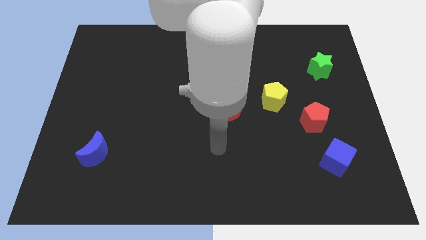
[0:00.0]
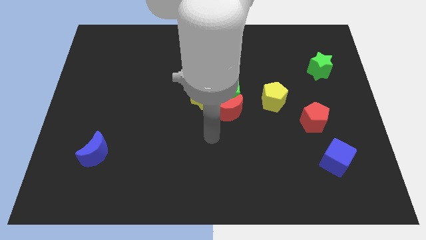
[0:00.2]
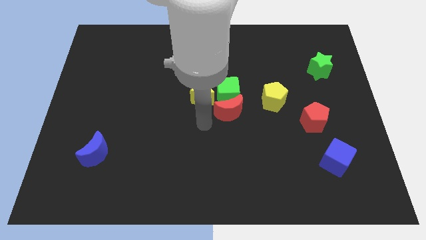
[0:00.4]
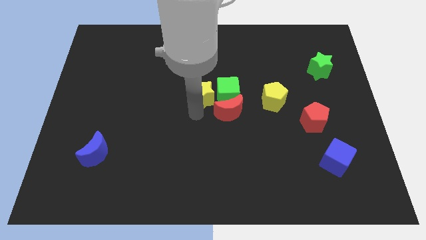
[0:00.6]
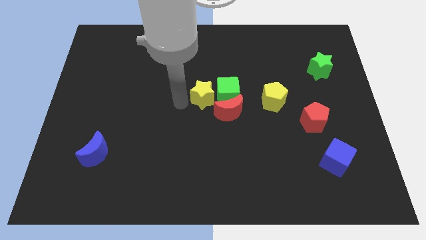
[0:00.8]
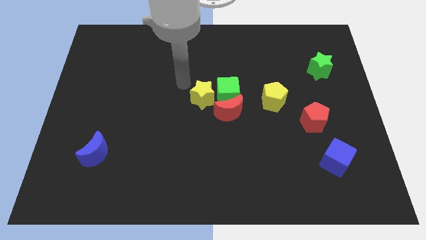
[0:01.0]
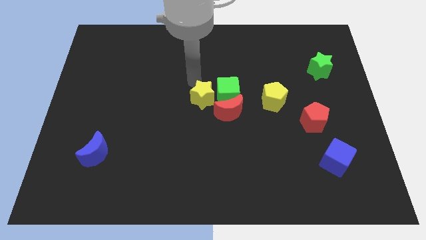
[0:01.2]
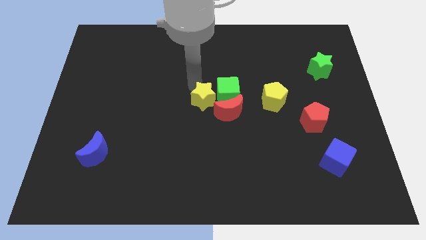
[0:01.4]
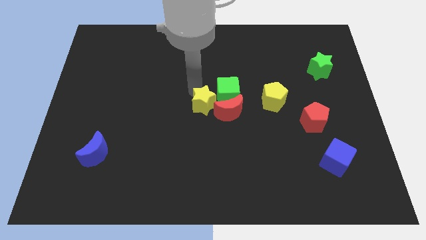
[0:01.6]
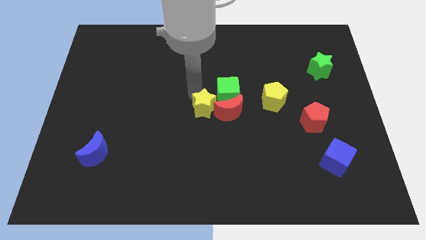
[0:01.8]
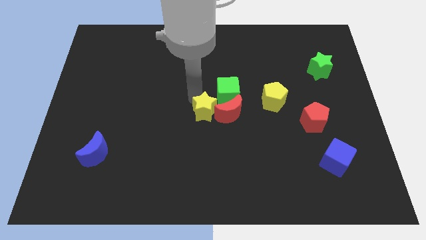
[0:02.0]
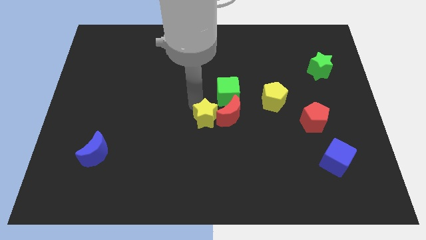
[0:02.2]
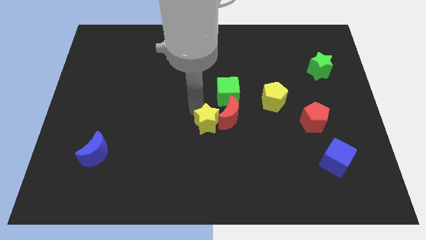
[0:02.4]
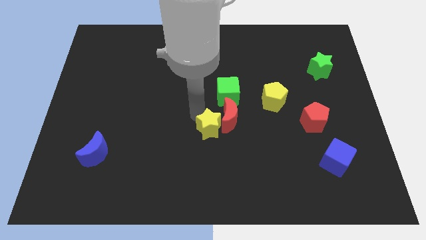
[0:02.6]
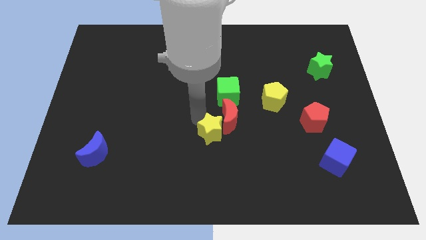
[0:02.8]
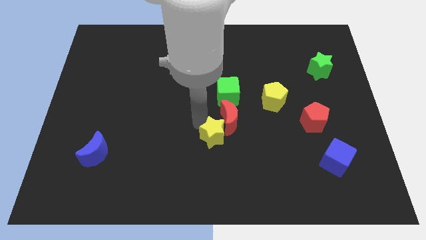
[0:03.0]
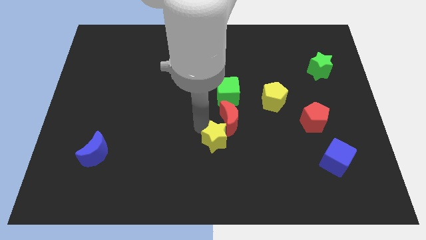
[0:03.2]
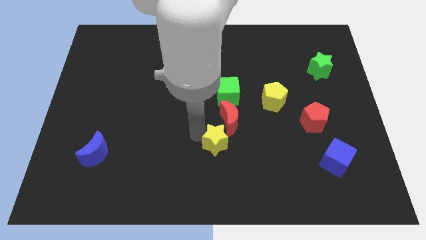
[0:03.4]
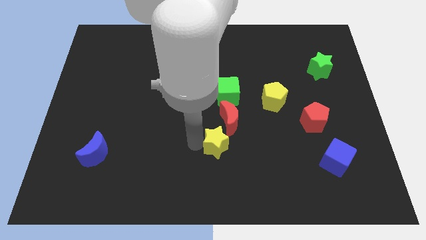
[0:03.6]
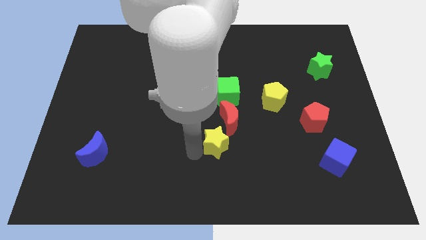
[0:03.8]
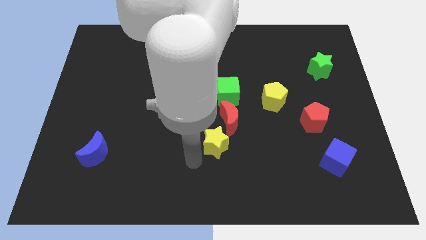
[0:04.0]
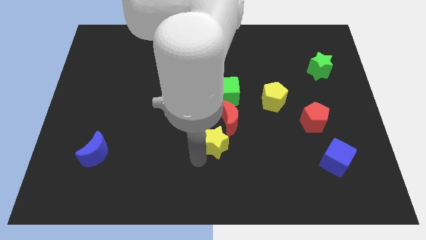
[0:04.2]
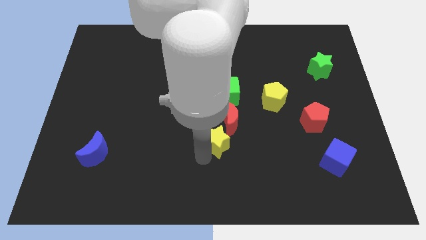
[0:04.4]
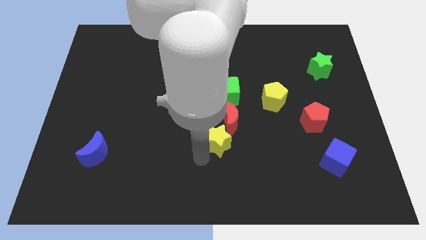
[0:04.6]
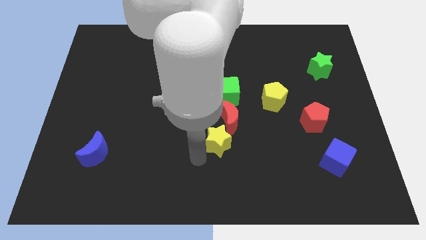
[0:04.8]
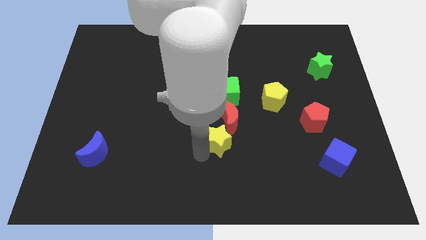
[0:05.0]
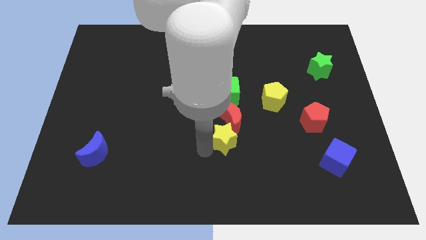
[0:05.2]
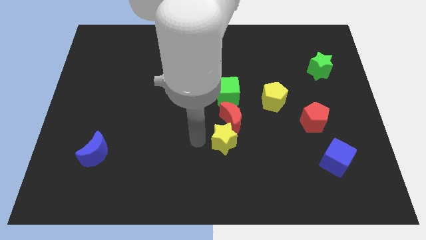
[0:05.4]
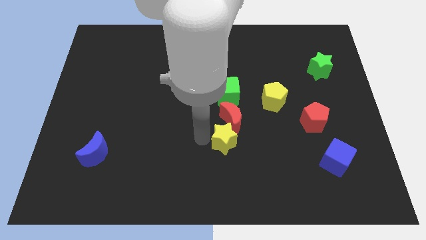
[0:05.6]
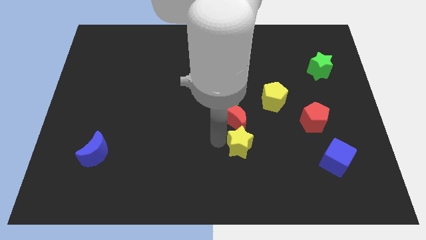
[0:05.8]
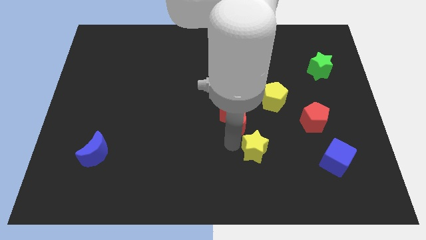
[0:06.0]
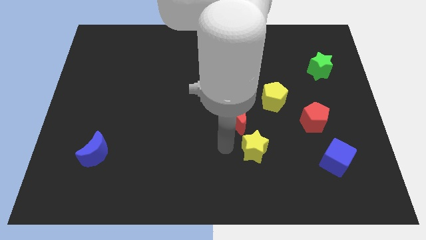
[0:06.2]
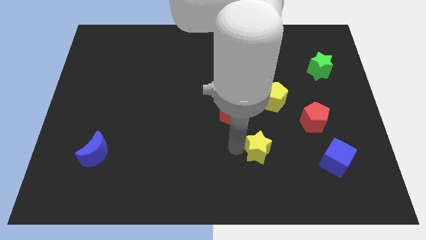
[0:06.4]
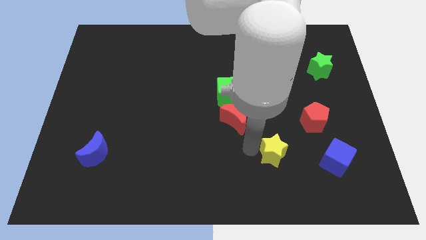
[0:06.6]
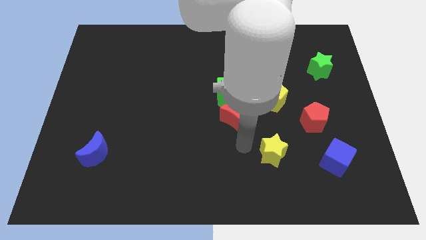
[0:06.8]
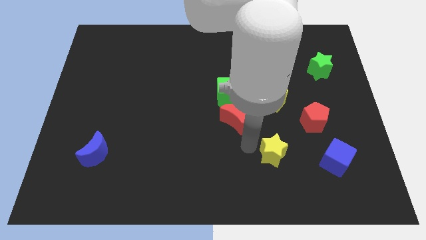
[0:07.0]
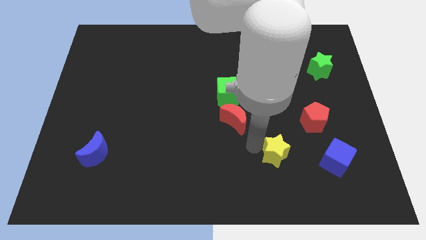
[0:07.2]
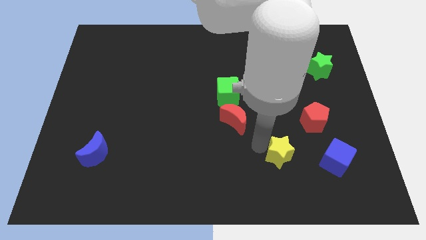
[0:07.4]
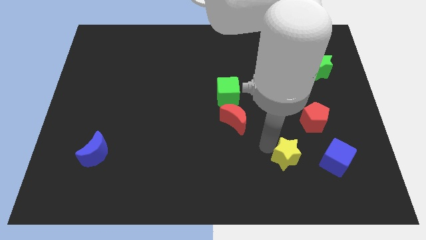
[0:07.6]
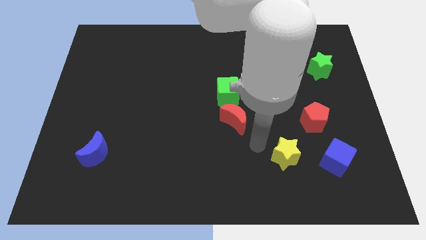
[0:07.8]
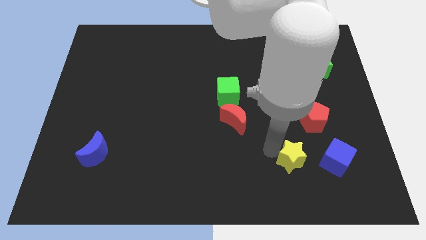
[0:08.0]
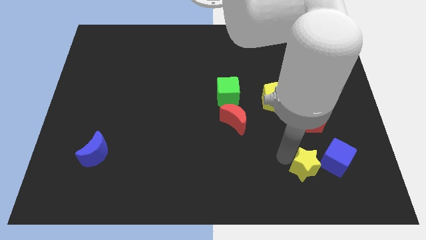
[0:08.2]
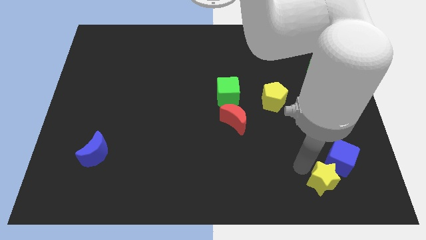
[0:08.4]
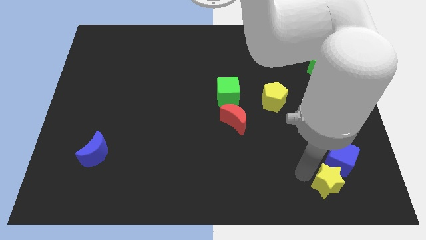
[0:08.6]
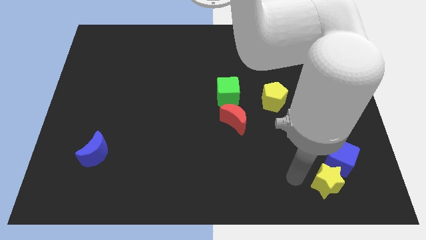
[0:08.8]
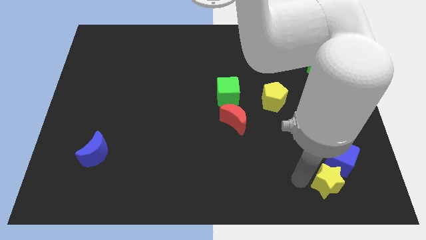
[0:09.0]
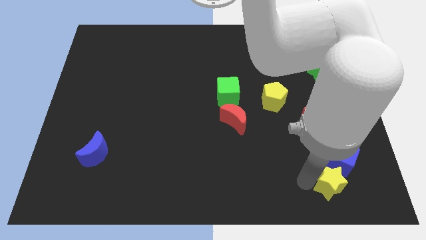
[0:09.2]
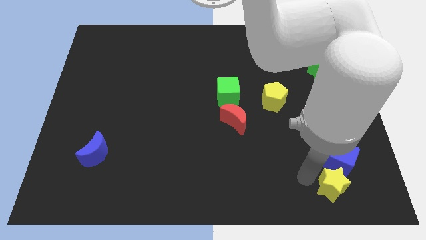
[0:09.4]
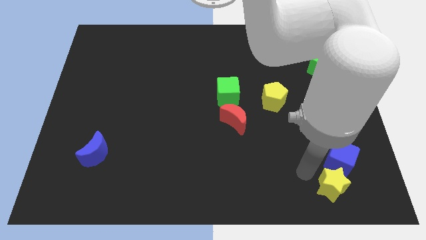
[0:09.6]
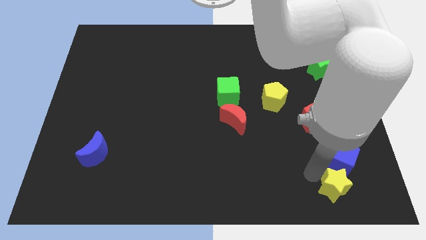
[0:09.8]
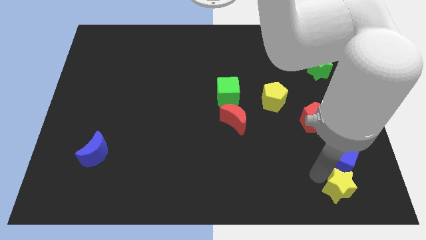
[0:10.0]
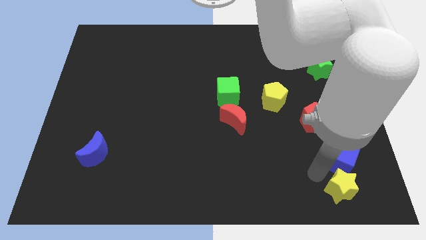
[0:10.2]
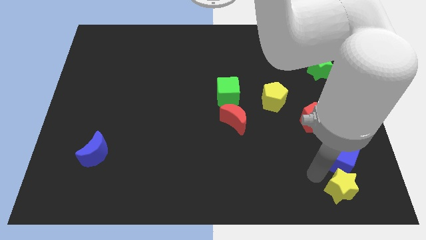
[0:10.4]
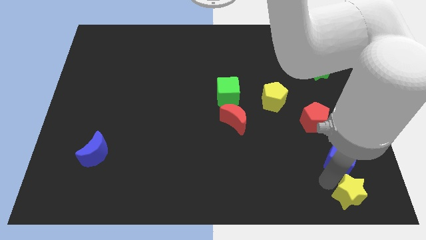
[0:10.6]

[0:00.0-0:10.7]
slide the yellow star to the bottom right of the board

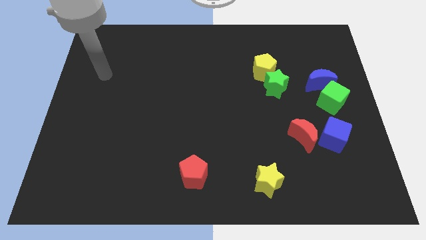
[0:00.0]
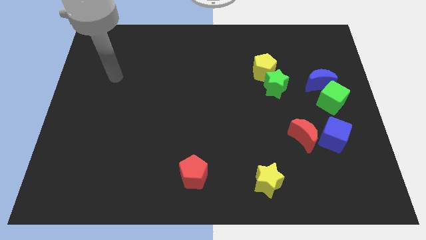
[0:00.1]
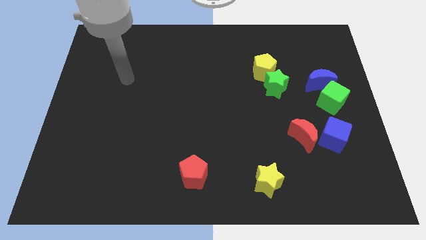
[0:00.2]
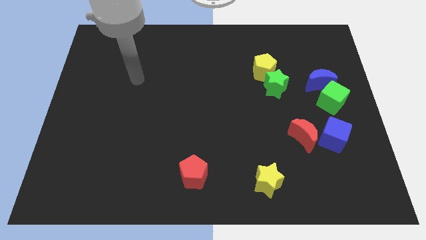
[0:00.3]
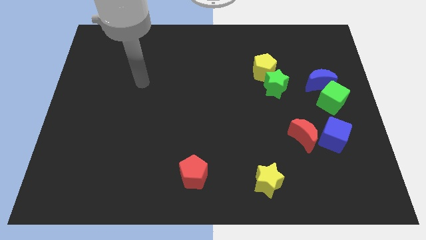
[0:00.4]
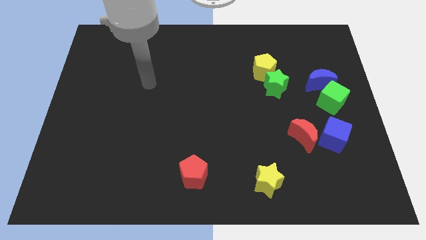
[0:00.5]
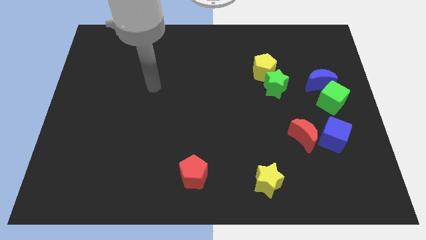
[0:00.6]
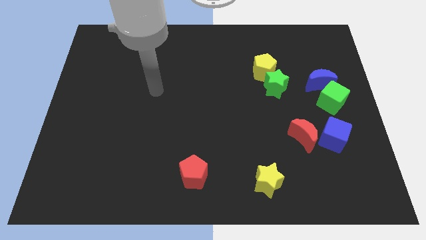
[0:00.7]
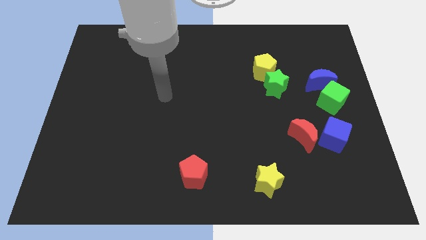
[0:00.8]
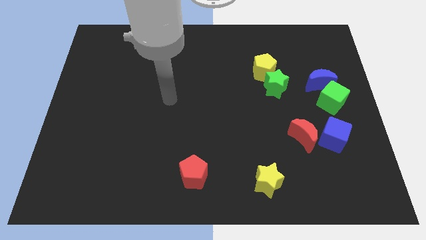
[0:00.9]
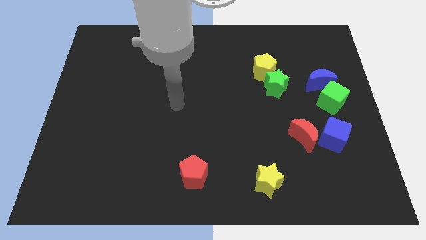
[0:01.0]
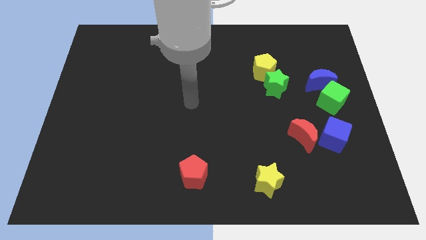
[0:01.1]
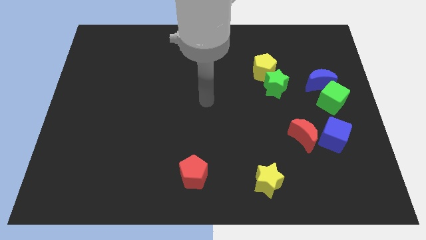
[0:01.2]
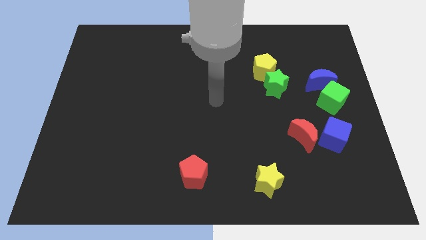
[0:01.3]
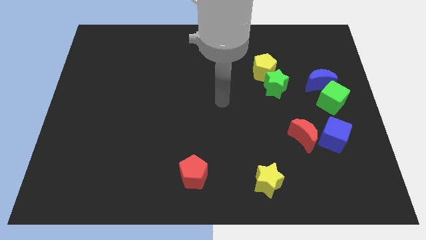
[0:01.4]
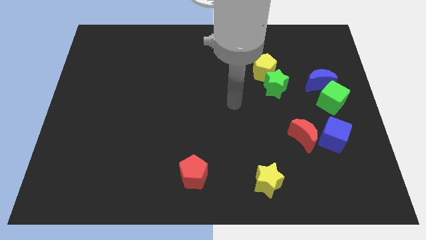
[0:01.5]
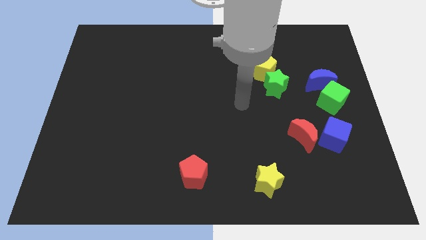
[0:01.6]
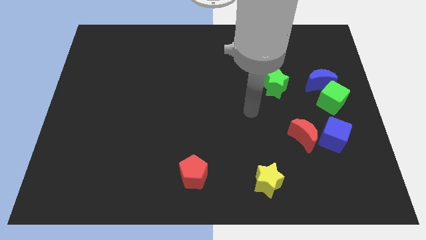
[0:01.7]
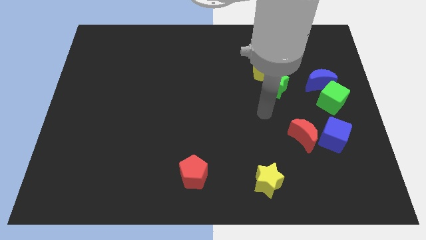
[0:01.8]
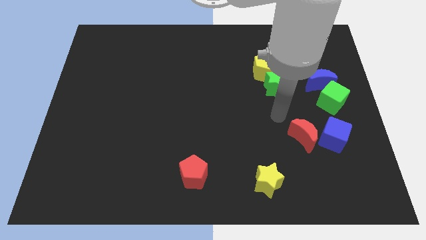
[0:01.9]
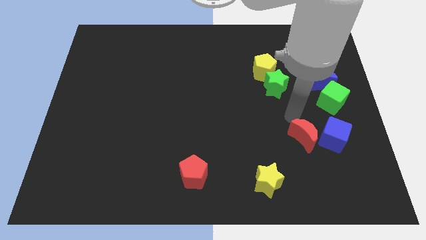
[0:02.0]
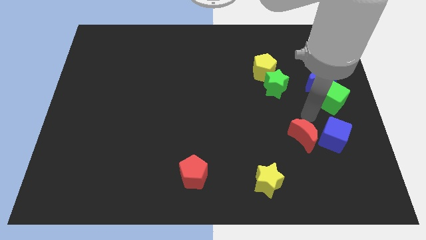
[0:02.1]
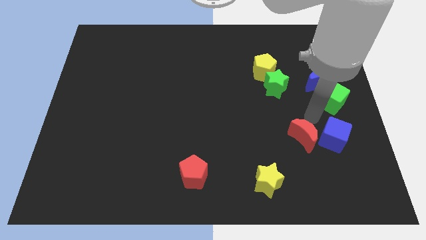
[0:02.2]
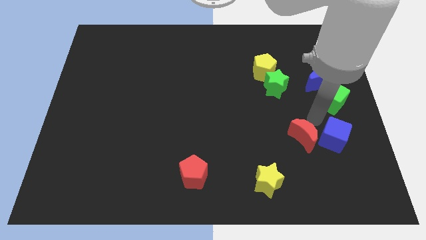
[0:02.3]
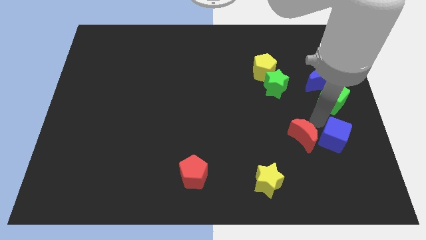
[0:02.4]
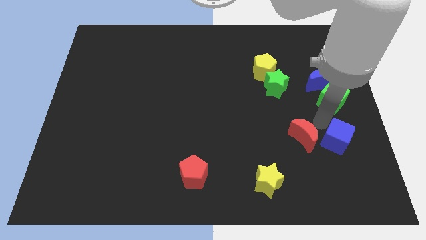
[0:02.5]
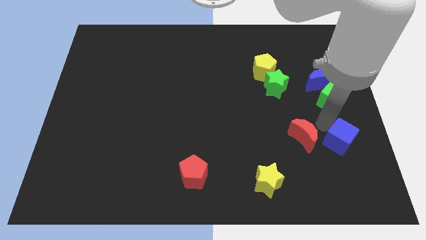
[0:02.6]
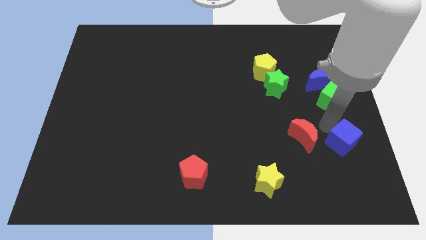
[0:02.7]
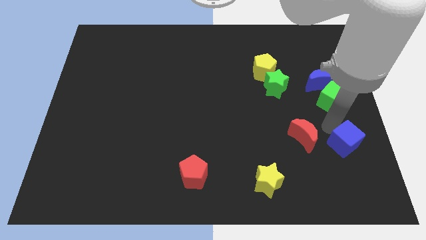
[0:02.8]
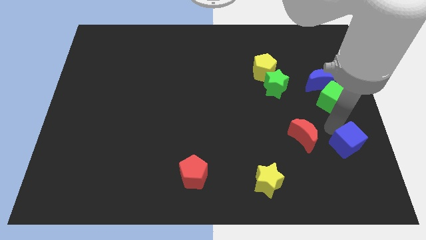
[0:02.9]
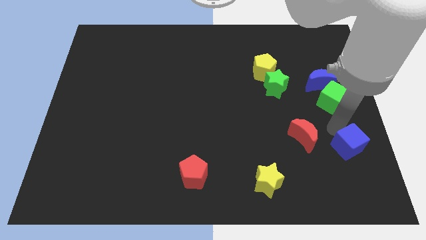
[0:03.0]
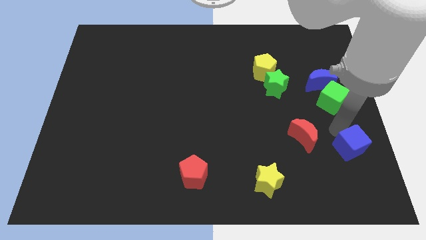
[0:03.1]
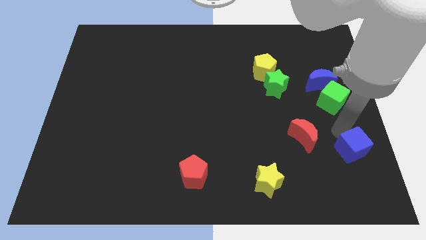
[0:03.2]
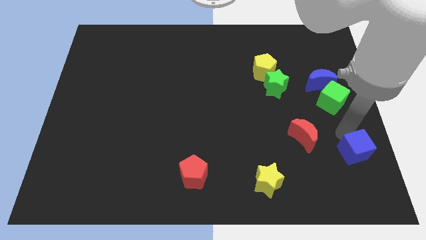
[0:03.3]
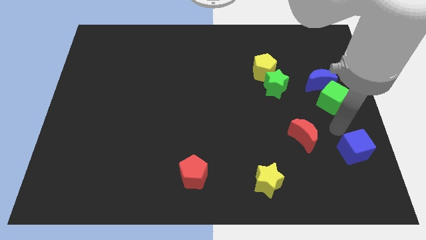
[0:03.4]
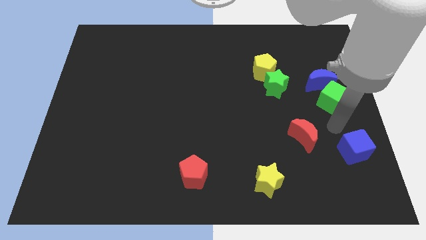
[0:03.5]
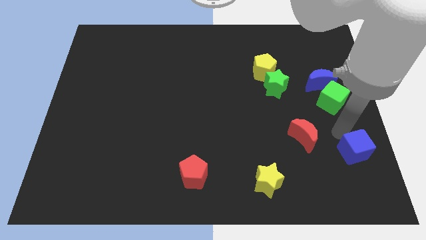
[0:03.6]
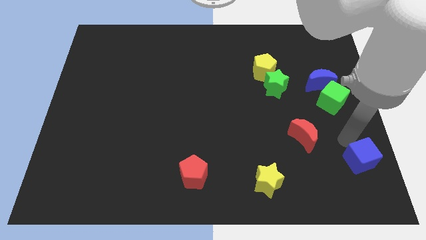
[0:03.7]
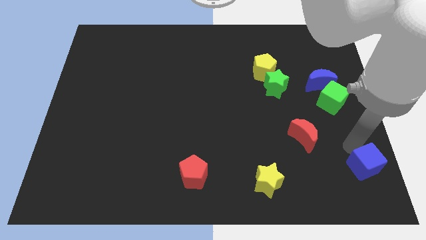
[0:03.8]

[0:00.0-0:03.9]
slide the blue cube to the bottom right
